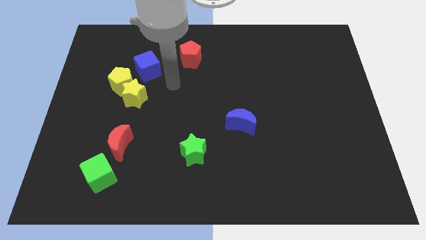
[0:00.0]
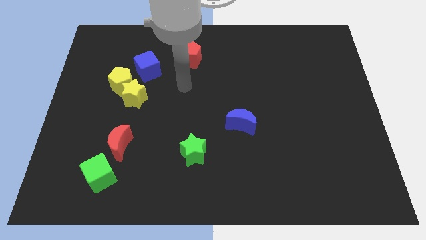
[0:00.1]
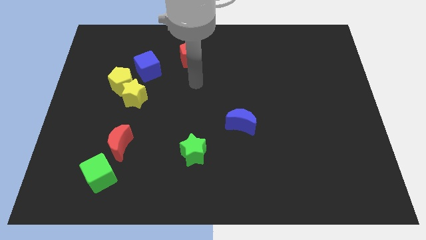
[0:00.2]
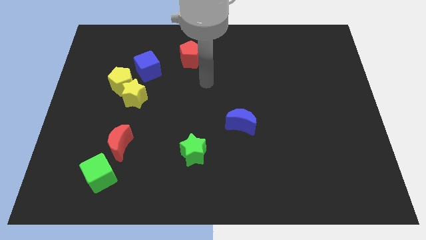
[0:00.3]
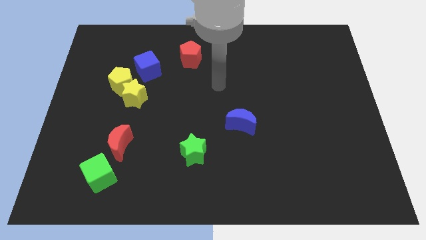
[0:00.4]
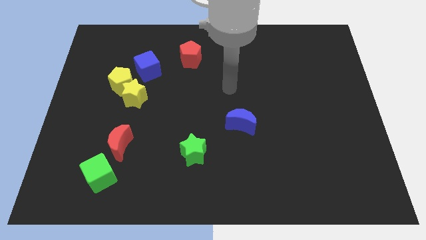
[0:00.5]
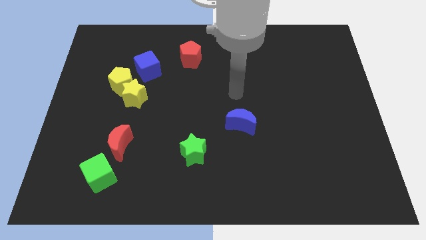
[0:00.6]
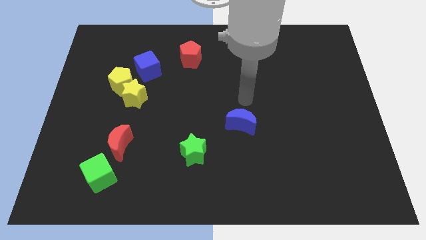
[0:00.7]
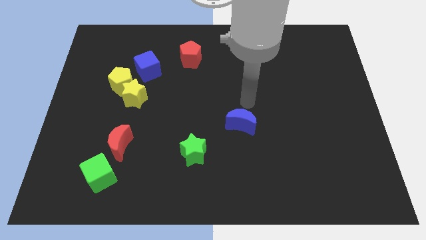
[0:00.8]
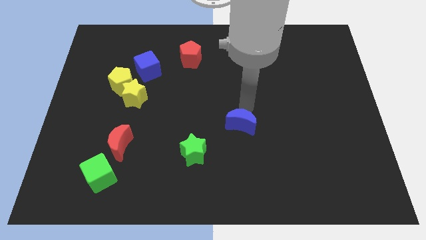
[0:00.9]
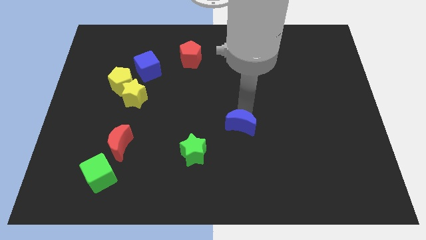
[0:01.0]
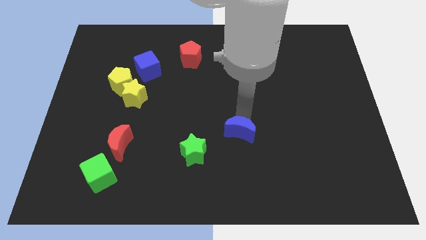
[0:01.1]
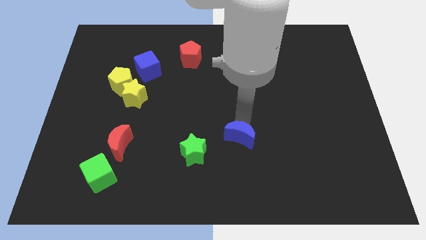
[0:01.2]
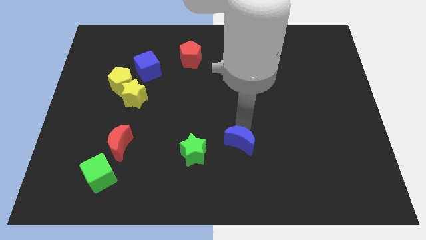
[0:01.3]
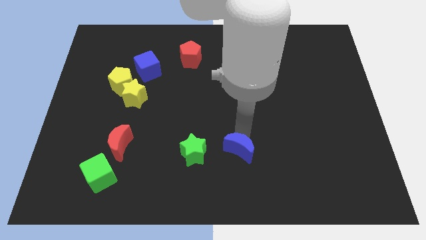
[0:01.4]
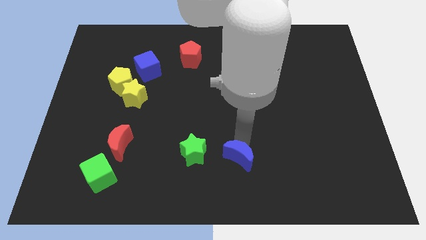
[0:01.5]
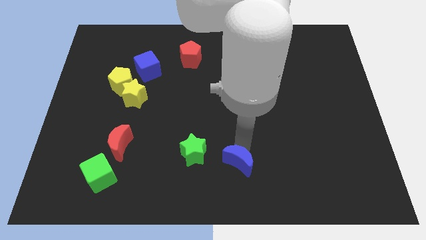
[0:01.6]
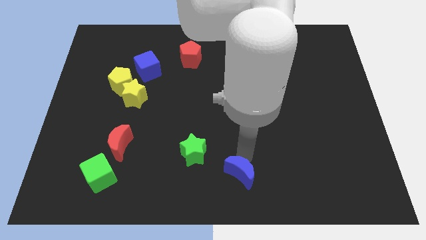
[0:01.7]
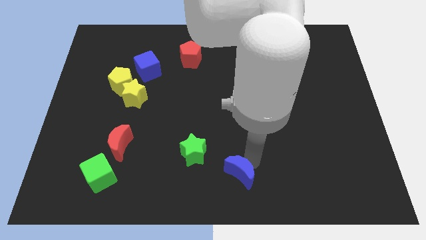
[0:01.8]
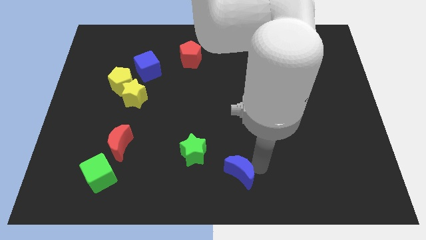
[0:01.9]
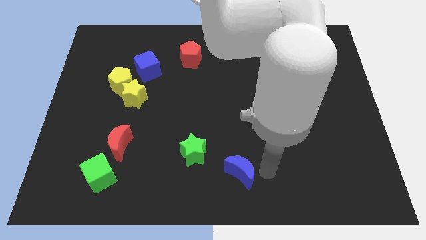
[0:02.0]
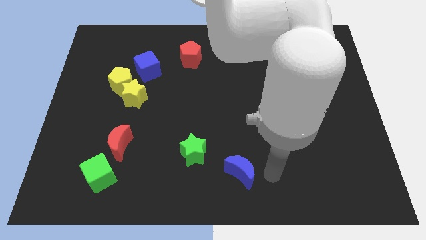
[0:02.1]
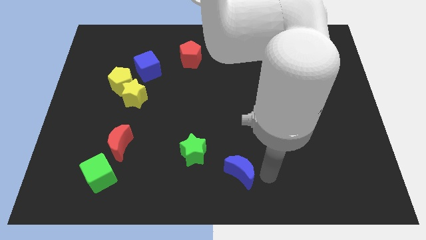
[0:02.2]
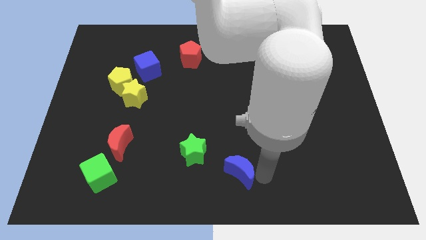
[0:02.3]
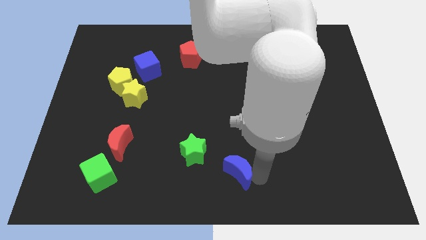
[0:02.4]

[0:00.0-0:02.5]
push the blue moon downwards and then left a little bit

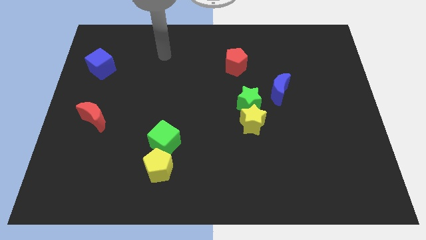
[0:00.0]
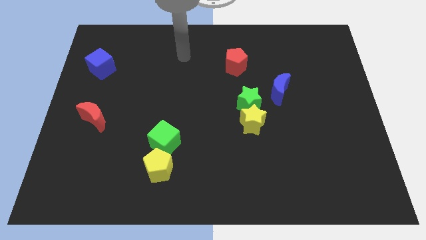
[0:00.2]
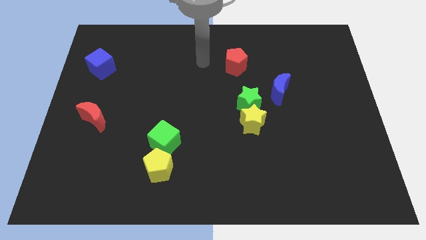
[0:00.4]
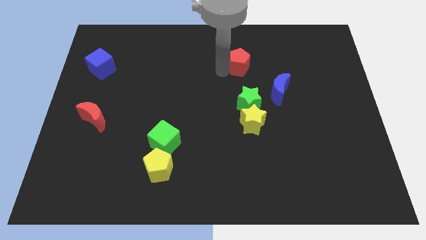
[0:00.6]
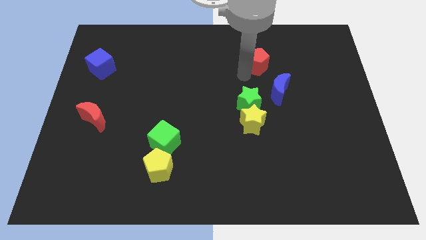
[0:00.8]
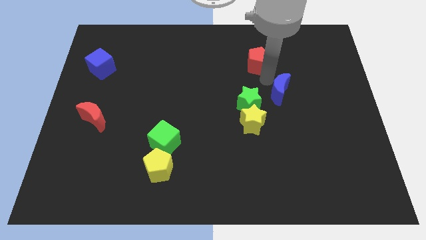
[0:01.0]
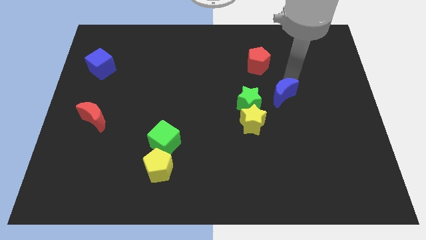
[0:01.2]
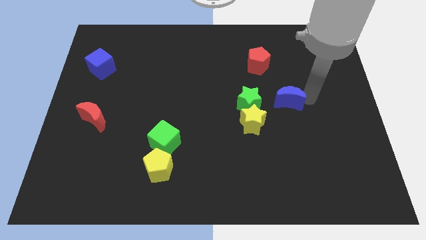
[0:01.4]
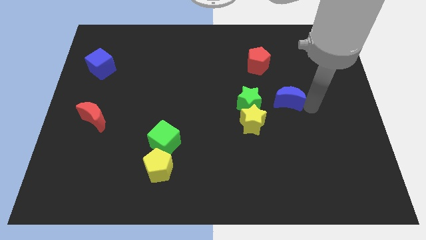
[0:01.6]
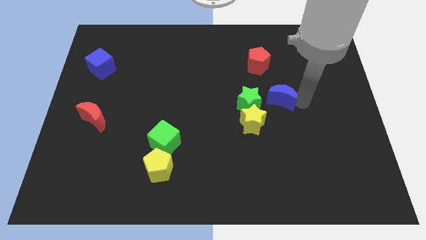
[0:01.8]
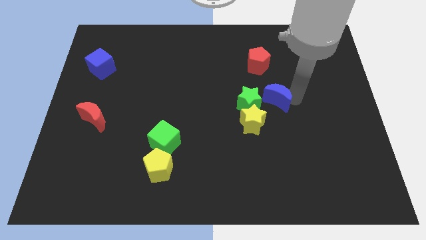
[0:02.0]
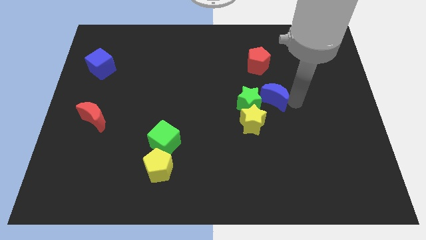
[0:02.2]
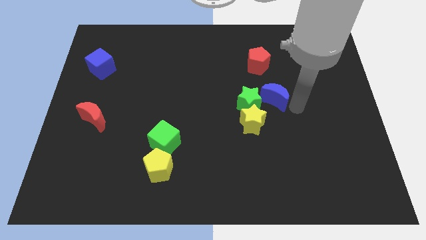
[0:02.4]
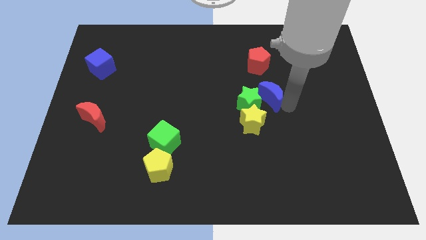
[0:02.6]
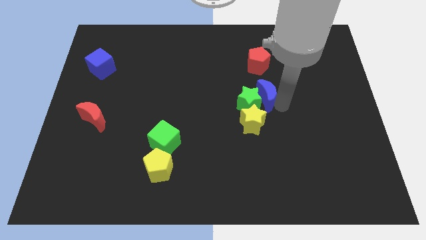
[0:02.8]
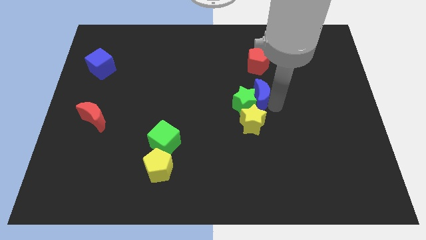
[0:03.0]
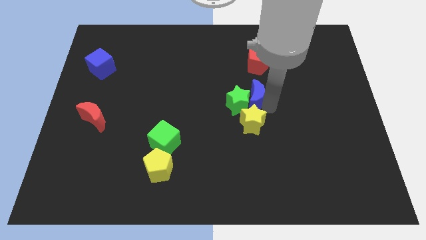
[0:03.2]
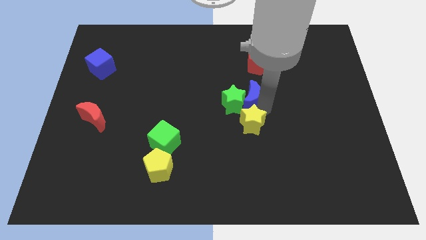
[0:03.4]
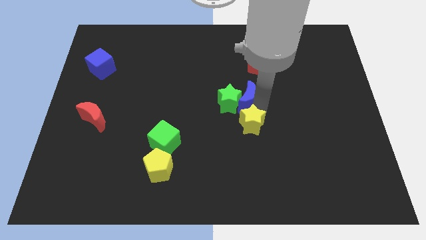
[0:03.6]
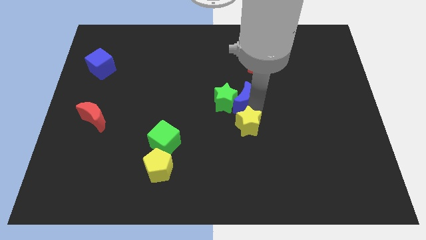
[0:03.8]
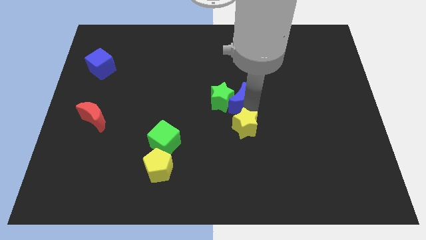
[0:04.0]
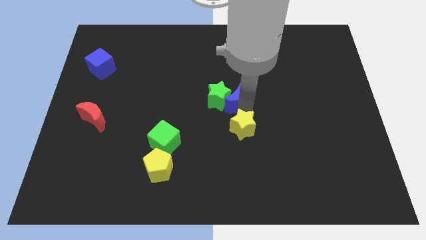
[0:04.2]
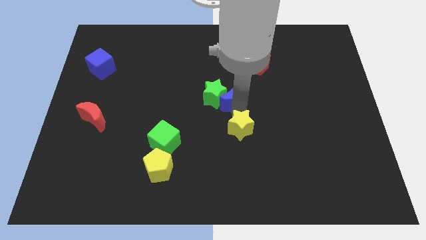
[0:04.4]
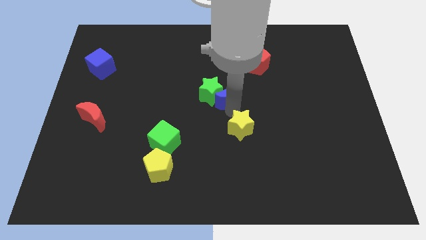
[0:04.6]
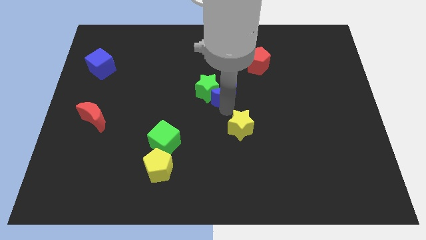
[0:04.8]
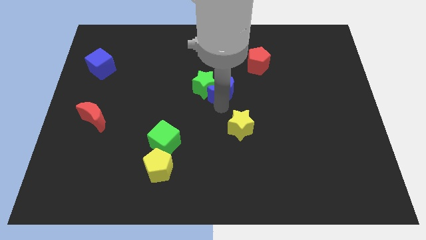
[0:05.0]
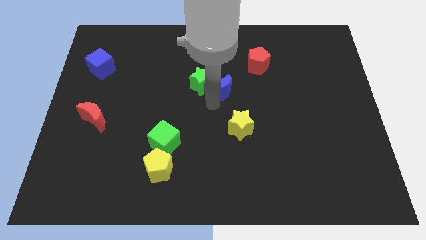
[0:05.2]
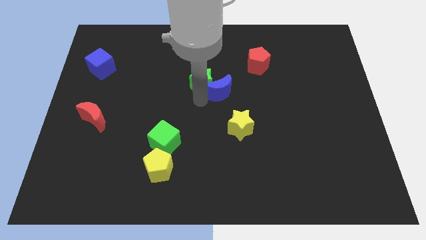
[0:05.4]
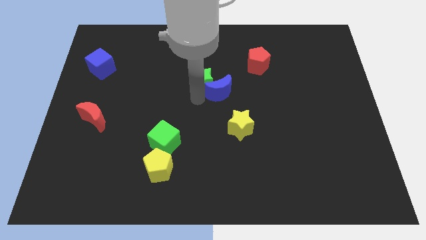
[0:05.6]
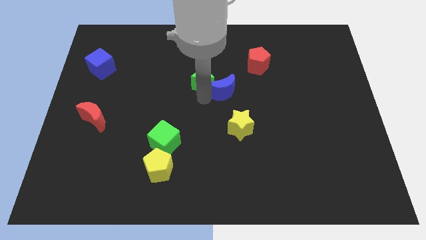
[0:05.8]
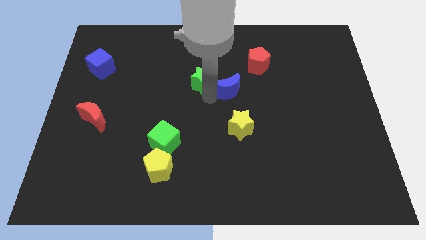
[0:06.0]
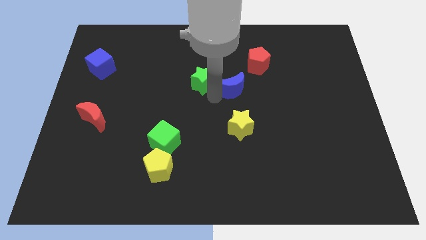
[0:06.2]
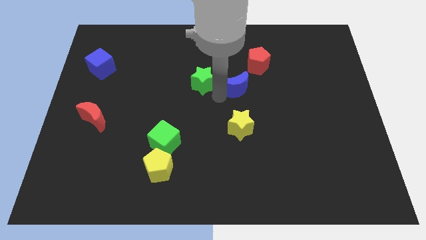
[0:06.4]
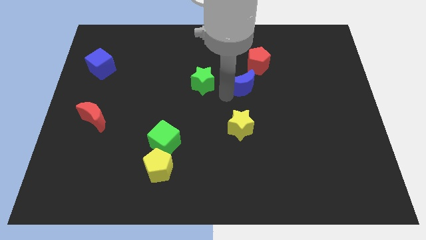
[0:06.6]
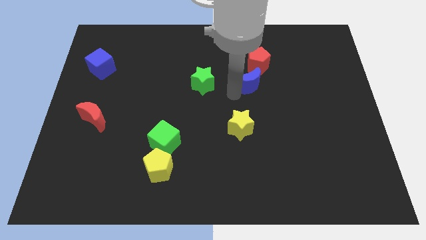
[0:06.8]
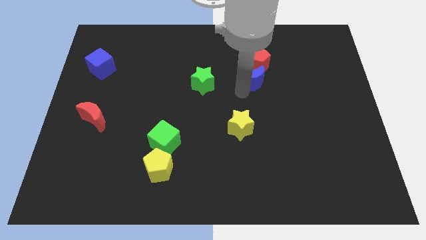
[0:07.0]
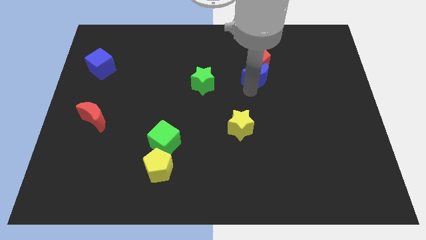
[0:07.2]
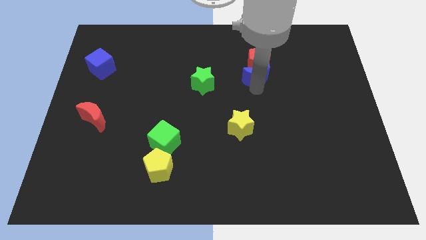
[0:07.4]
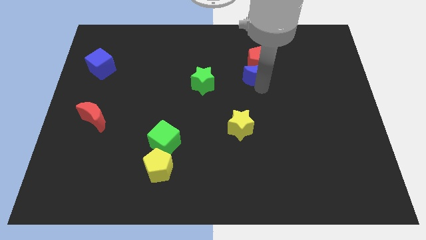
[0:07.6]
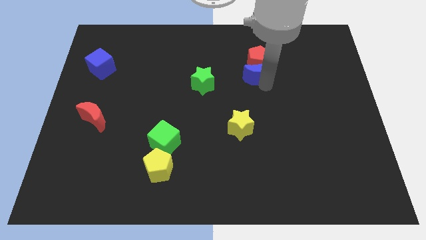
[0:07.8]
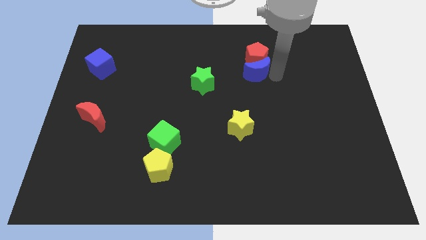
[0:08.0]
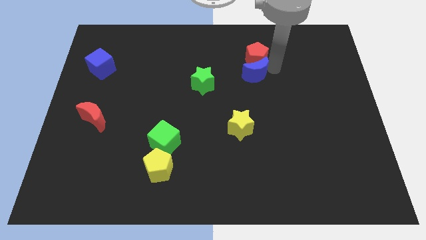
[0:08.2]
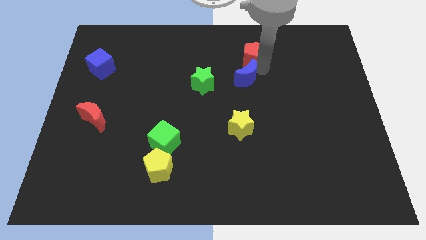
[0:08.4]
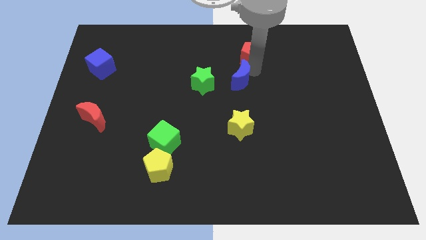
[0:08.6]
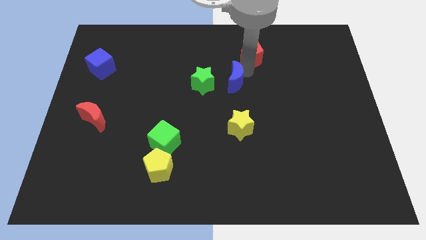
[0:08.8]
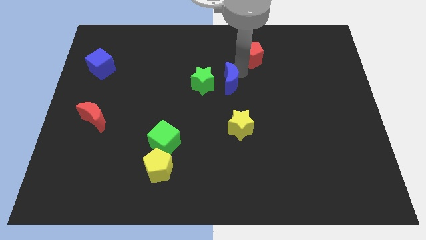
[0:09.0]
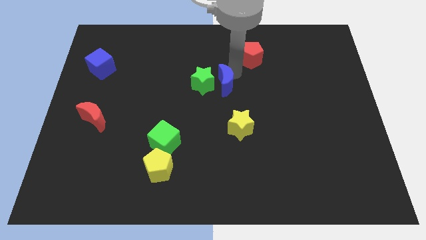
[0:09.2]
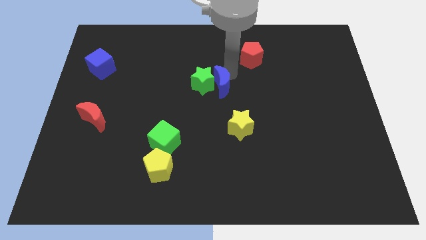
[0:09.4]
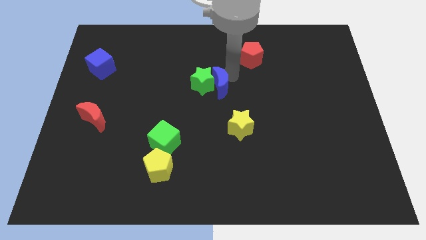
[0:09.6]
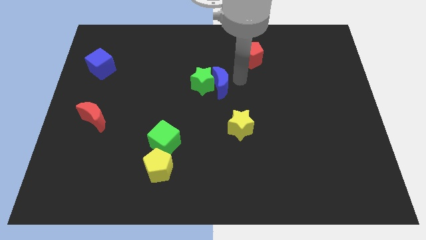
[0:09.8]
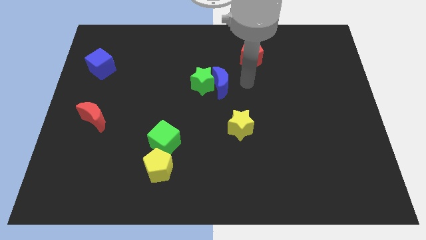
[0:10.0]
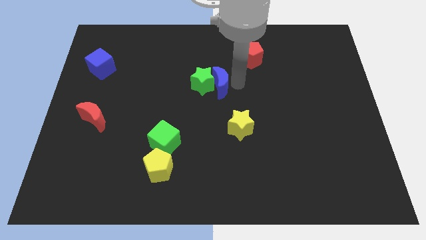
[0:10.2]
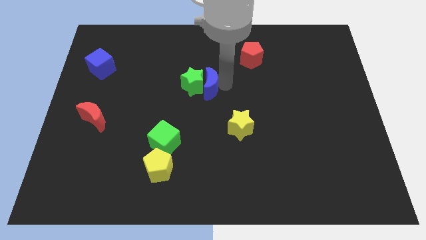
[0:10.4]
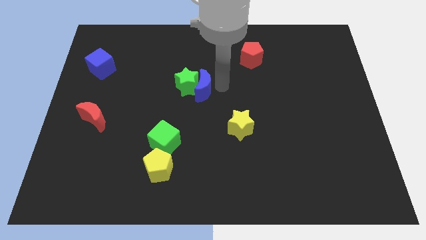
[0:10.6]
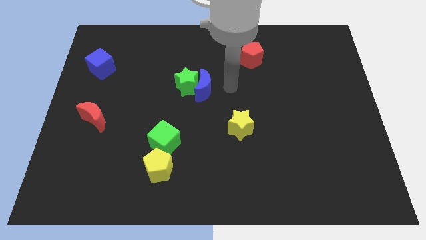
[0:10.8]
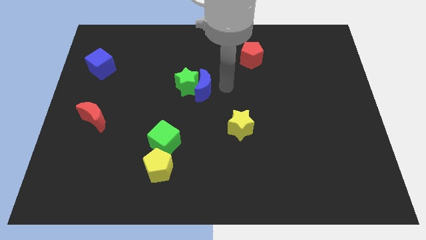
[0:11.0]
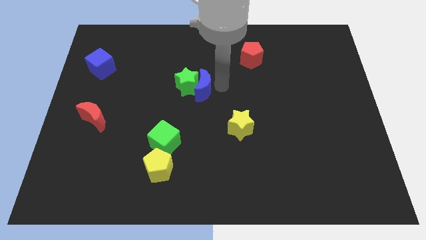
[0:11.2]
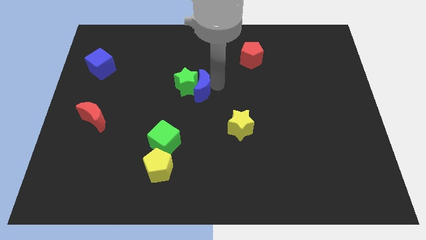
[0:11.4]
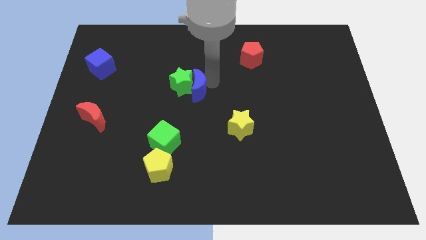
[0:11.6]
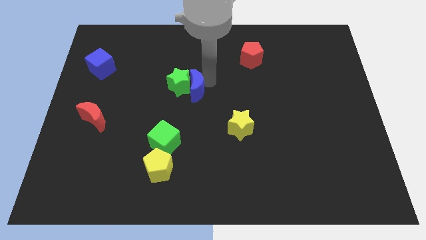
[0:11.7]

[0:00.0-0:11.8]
move the blue moon left
